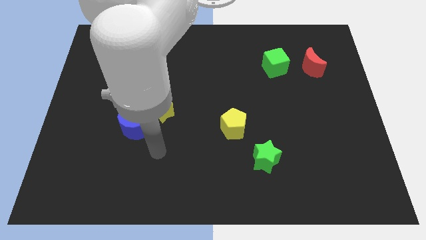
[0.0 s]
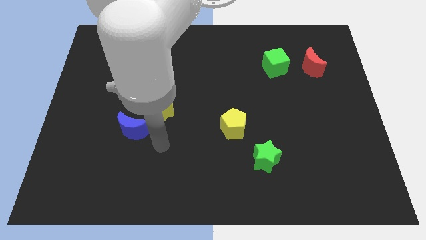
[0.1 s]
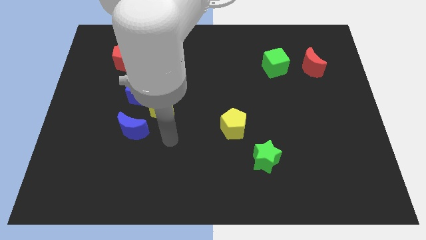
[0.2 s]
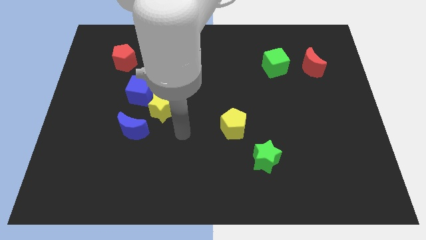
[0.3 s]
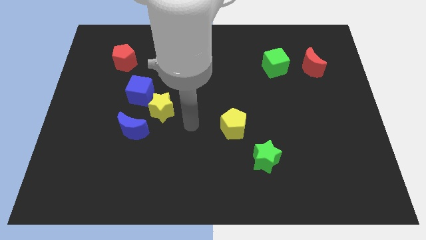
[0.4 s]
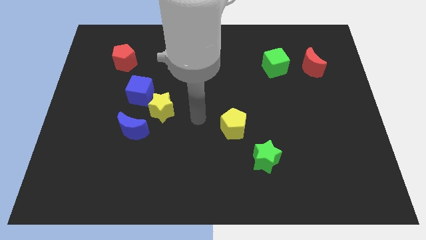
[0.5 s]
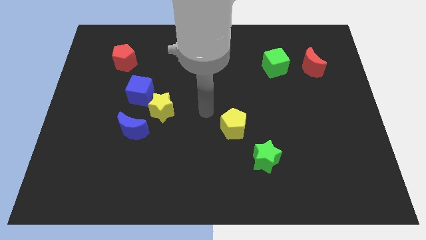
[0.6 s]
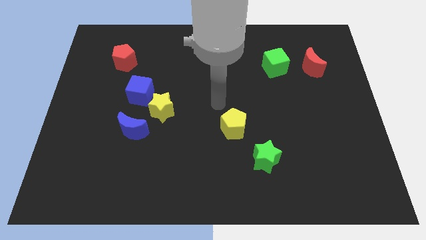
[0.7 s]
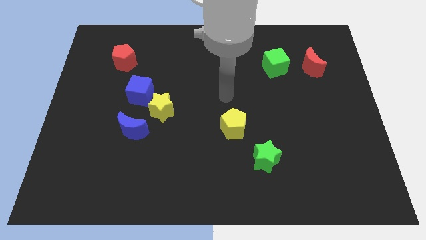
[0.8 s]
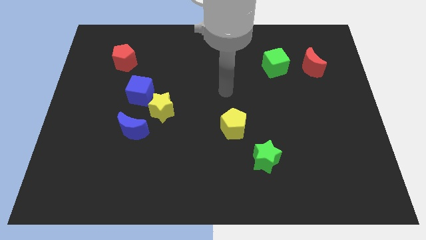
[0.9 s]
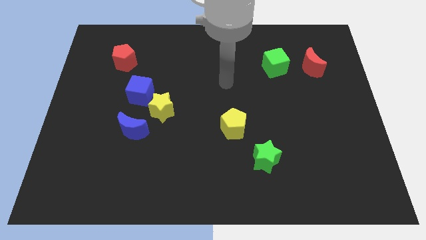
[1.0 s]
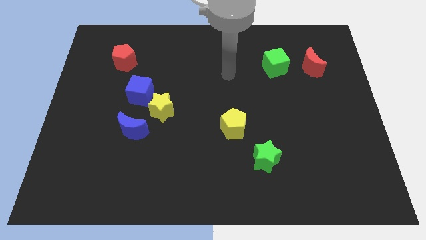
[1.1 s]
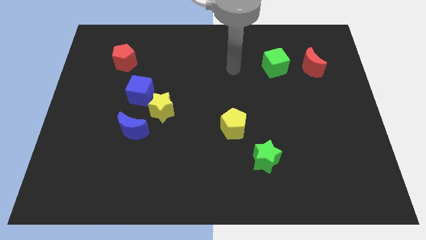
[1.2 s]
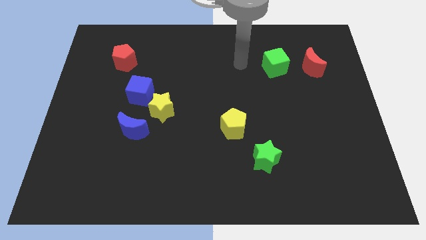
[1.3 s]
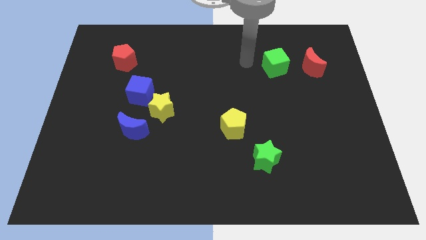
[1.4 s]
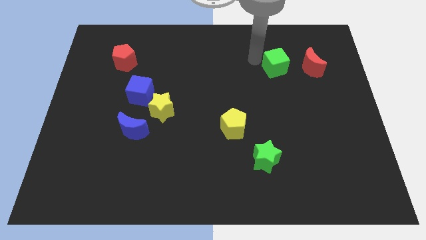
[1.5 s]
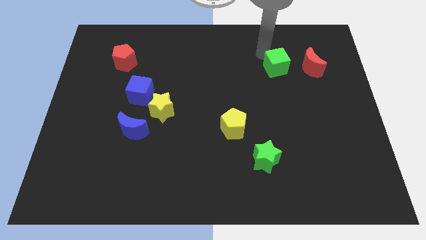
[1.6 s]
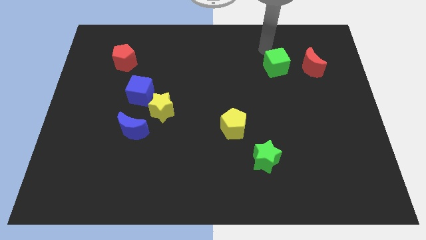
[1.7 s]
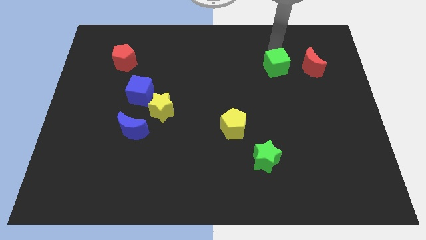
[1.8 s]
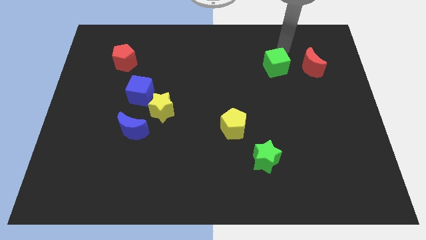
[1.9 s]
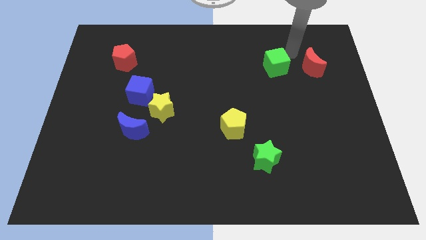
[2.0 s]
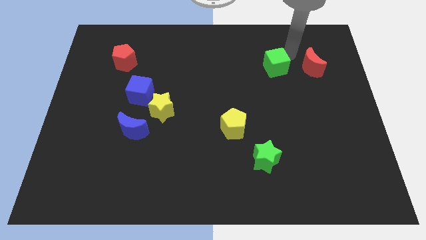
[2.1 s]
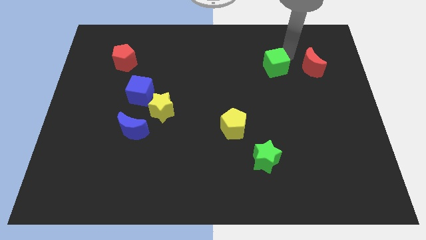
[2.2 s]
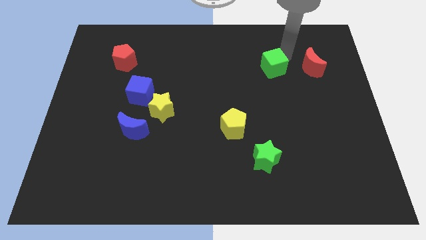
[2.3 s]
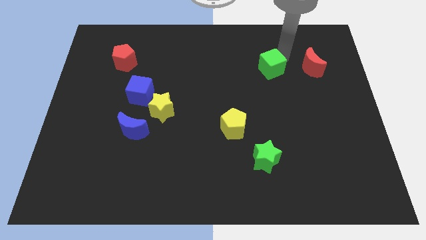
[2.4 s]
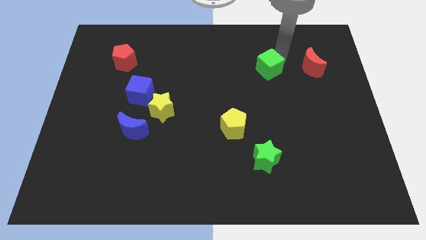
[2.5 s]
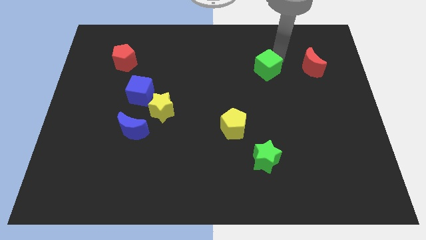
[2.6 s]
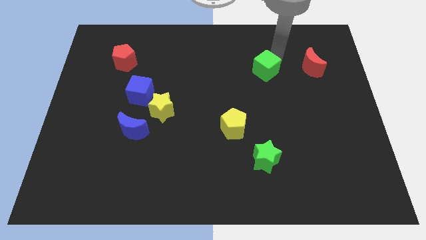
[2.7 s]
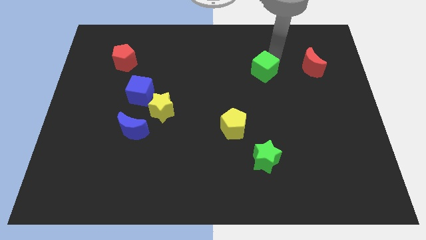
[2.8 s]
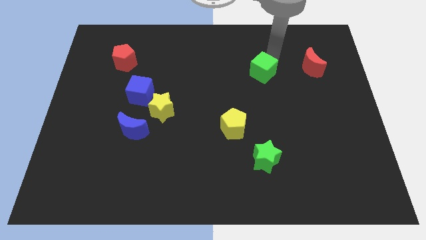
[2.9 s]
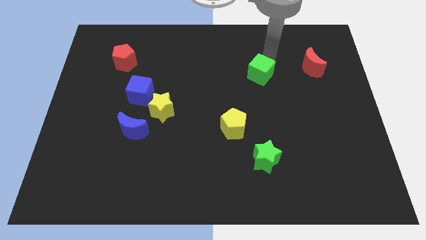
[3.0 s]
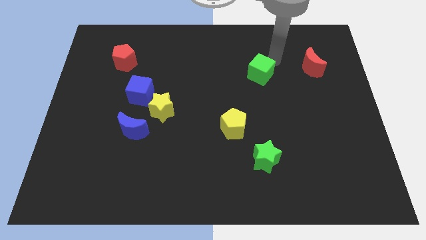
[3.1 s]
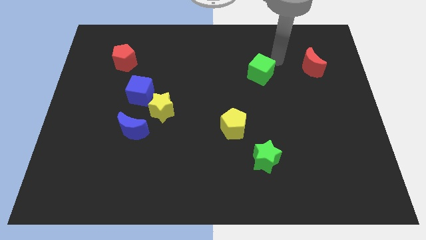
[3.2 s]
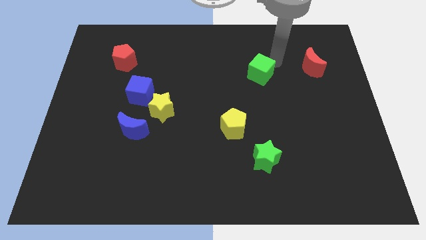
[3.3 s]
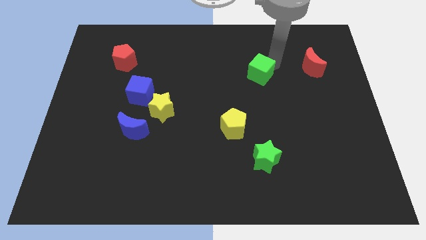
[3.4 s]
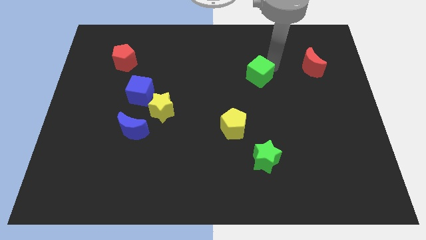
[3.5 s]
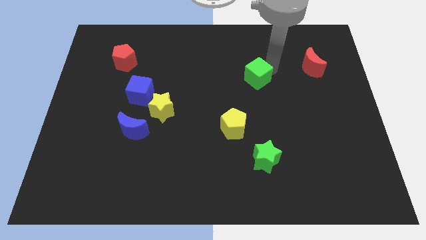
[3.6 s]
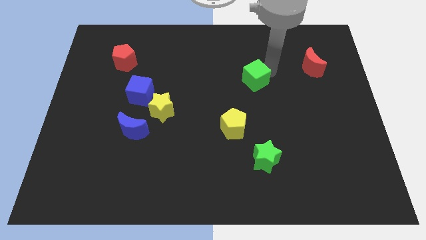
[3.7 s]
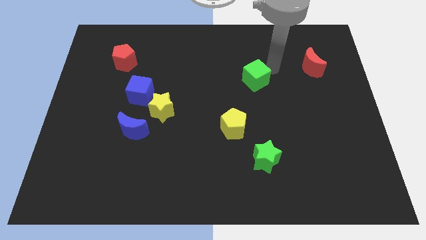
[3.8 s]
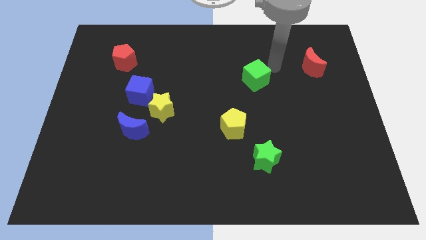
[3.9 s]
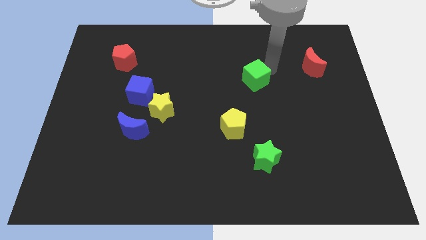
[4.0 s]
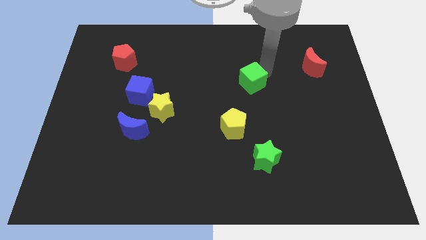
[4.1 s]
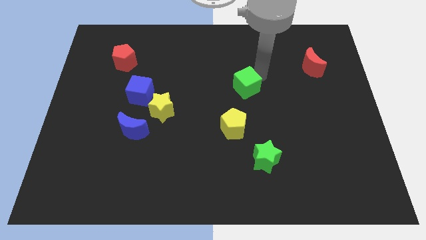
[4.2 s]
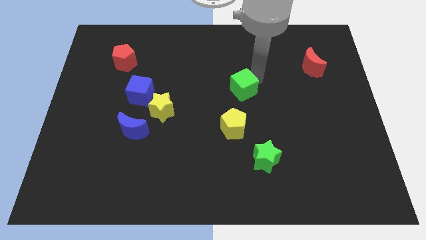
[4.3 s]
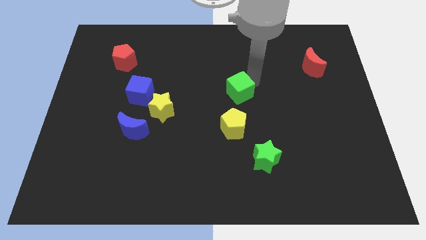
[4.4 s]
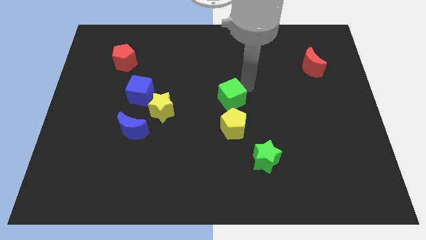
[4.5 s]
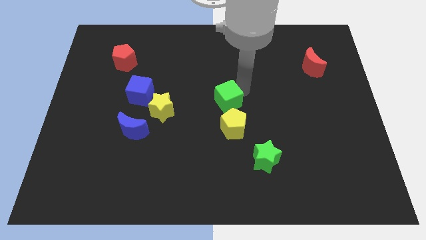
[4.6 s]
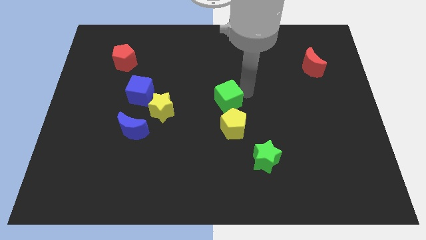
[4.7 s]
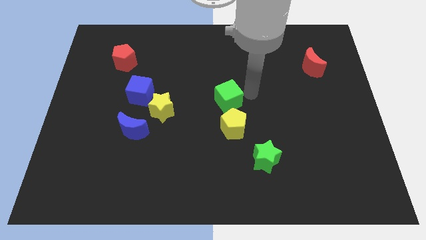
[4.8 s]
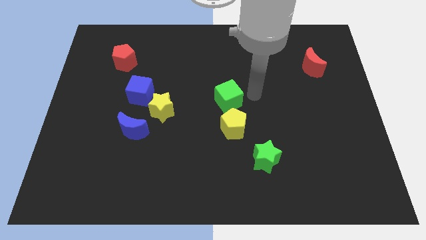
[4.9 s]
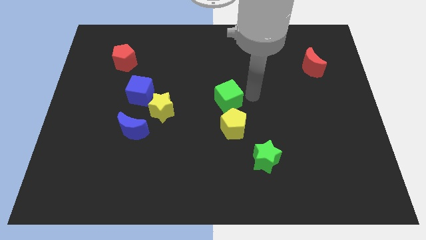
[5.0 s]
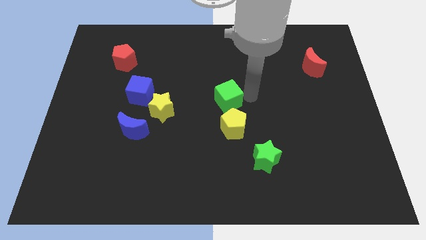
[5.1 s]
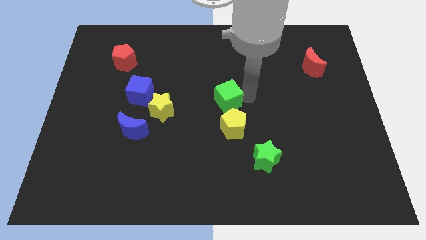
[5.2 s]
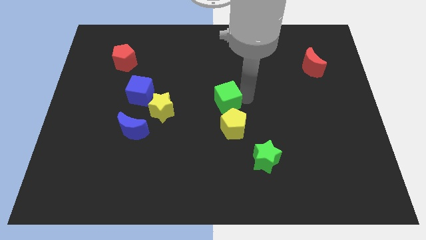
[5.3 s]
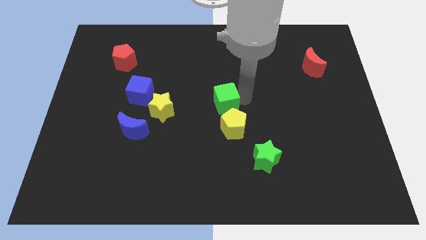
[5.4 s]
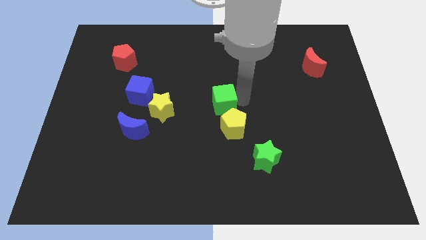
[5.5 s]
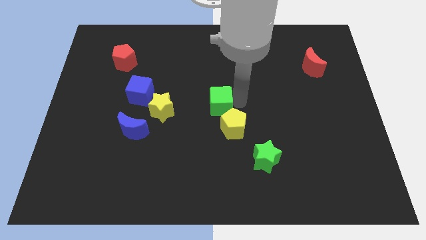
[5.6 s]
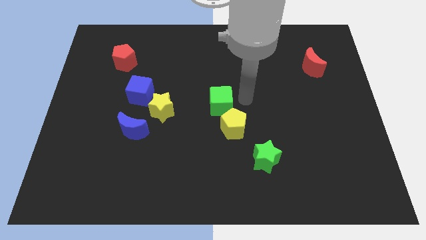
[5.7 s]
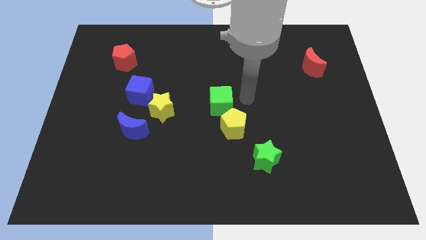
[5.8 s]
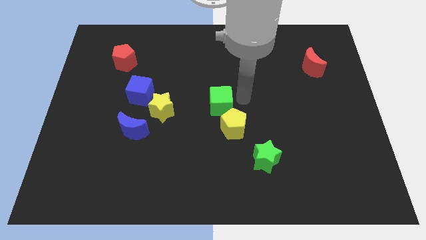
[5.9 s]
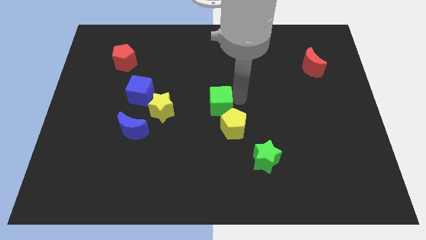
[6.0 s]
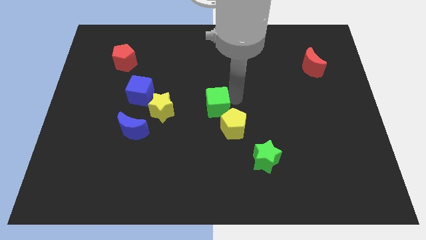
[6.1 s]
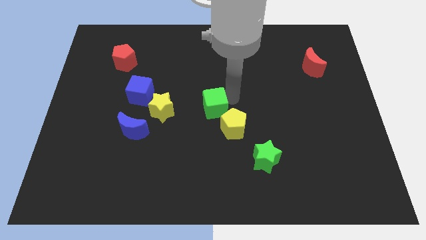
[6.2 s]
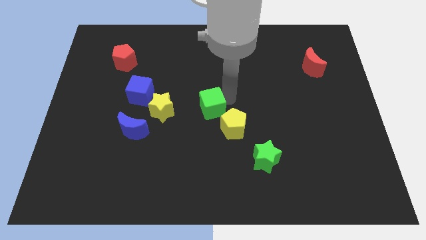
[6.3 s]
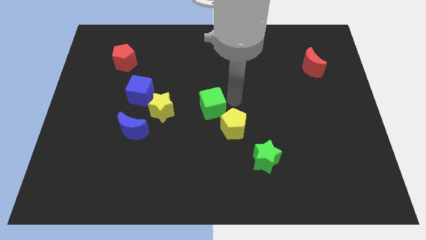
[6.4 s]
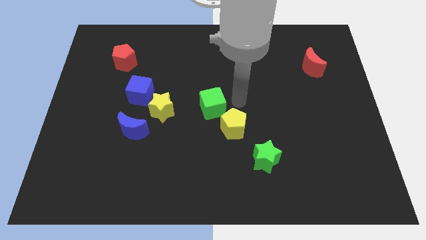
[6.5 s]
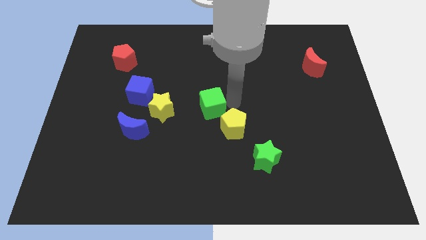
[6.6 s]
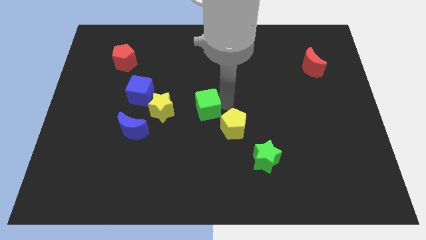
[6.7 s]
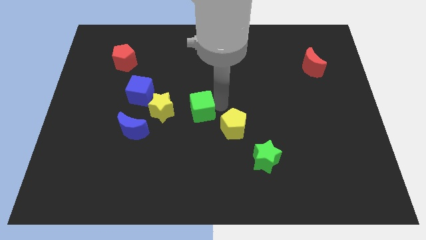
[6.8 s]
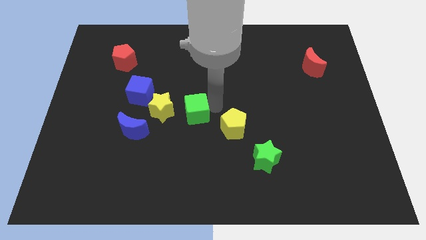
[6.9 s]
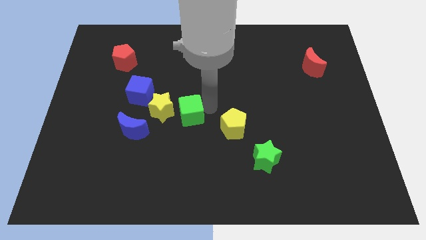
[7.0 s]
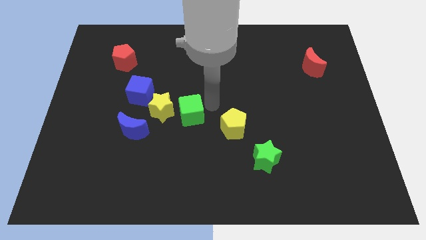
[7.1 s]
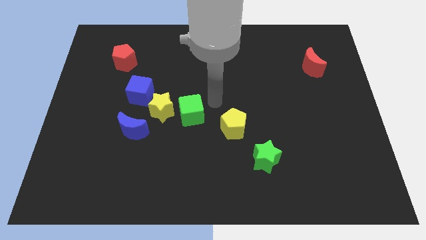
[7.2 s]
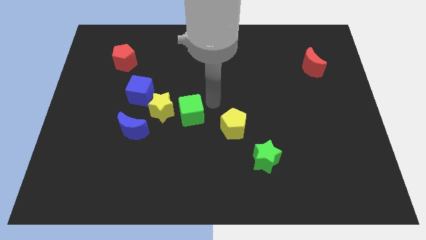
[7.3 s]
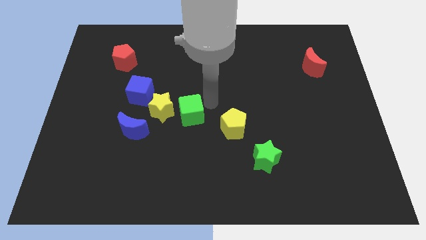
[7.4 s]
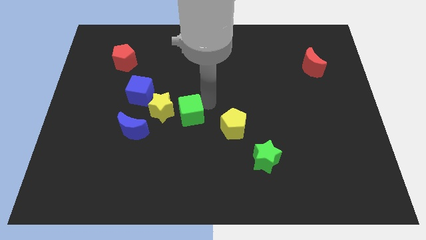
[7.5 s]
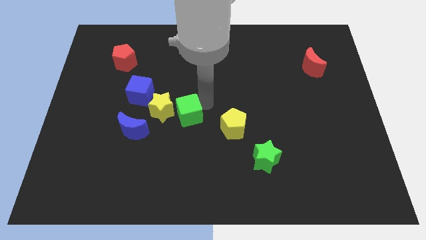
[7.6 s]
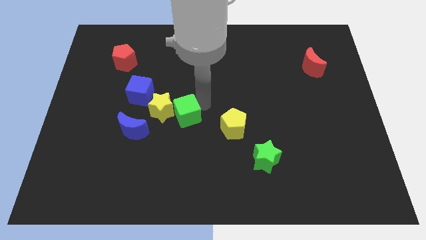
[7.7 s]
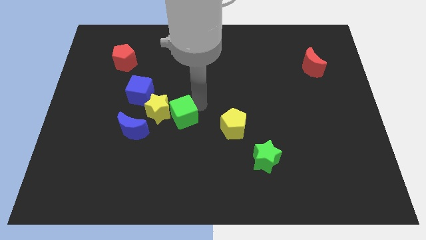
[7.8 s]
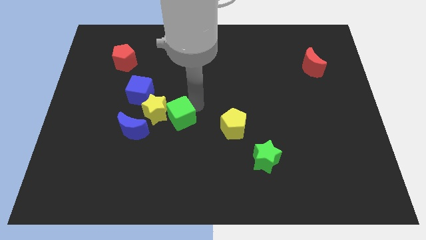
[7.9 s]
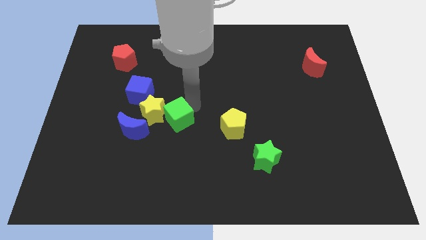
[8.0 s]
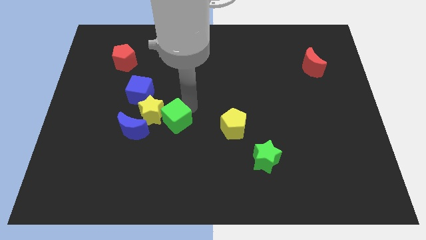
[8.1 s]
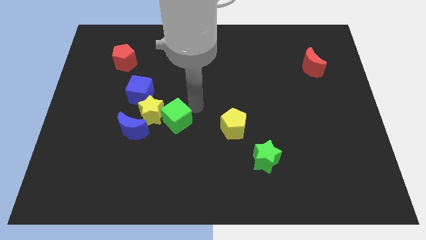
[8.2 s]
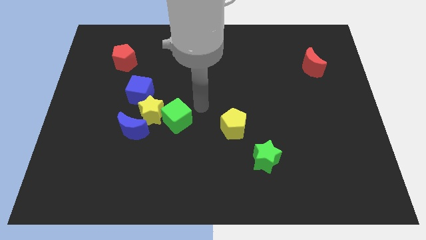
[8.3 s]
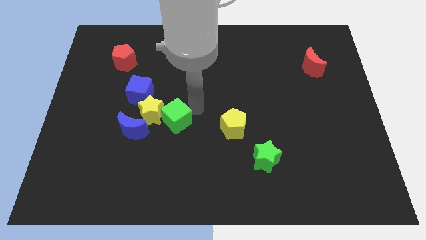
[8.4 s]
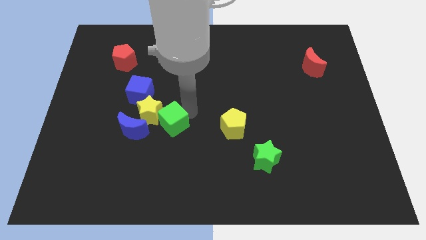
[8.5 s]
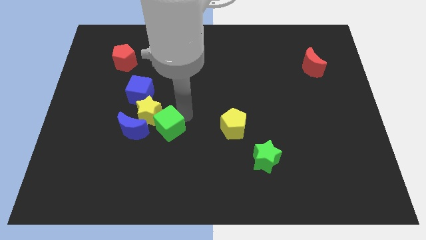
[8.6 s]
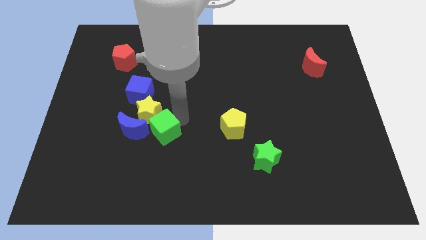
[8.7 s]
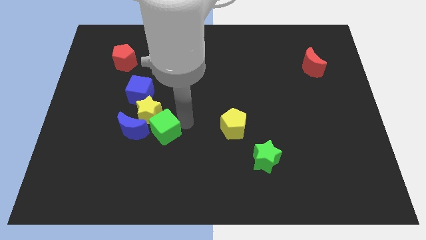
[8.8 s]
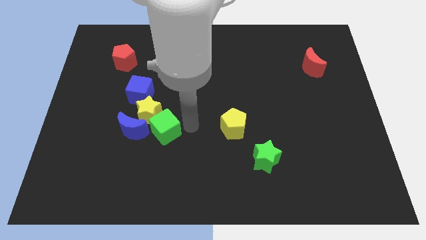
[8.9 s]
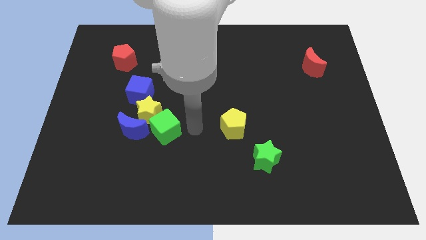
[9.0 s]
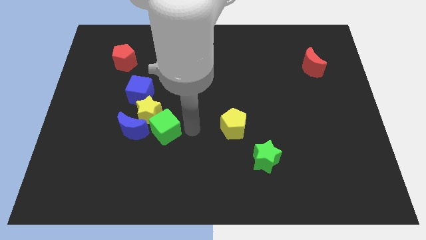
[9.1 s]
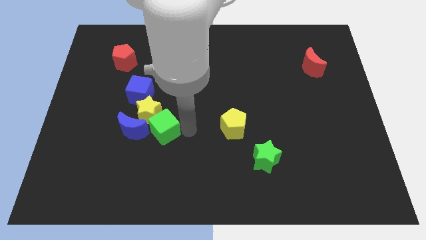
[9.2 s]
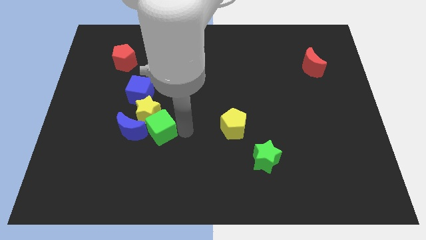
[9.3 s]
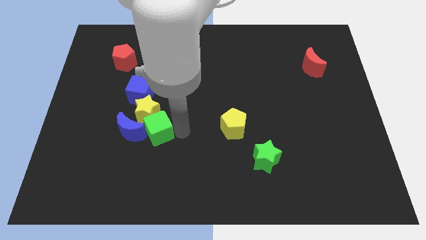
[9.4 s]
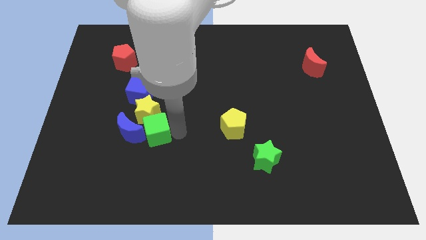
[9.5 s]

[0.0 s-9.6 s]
slide the green cube close to the blue moon
